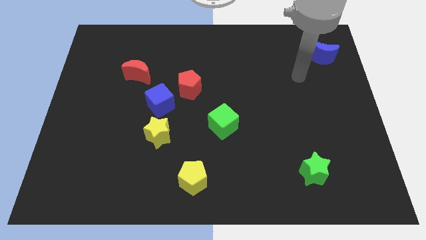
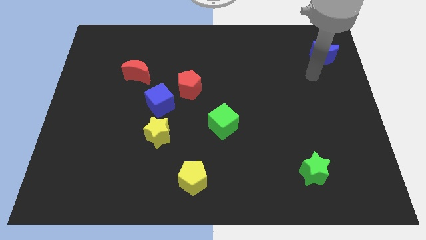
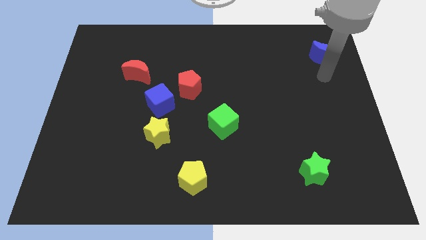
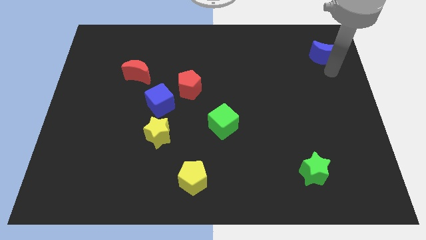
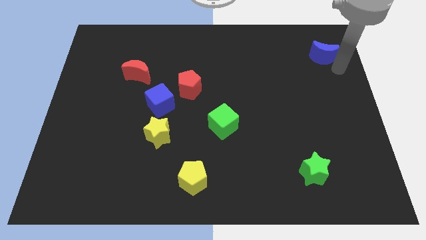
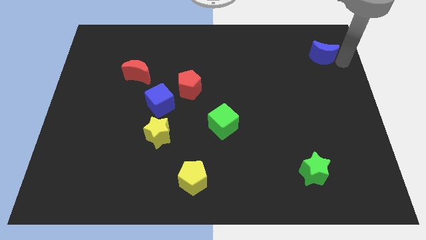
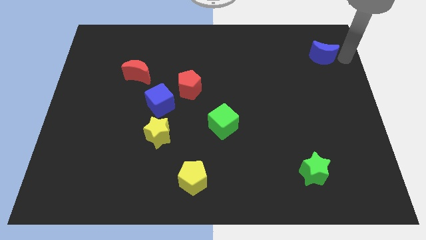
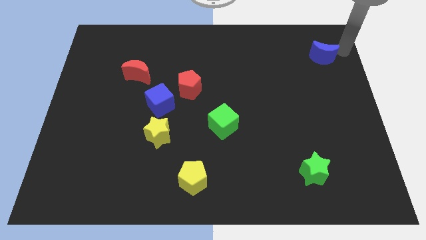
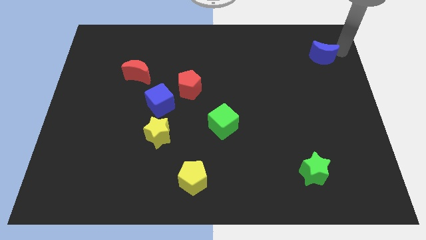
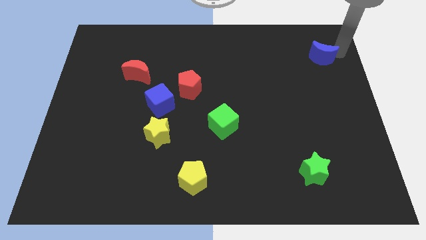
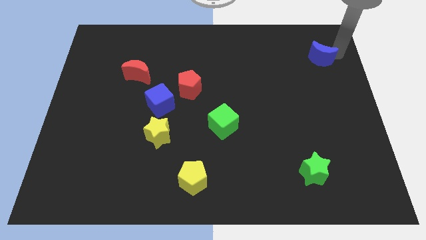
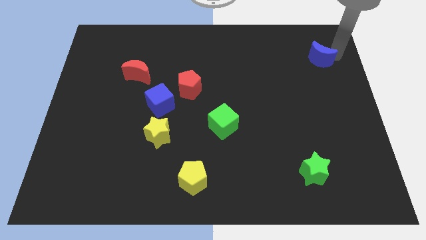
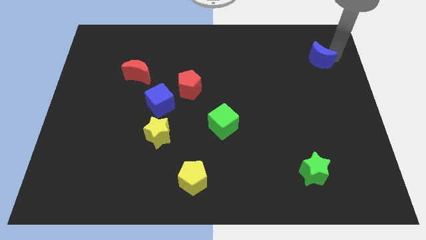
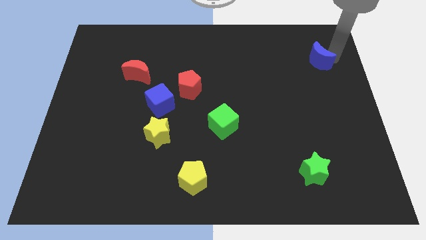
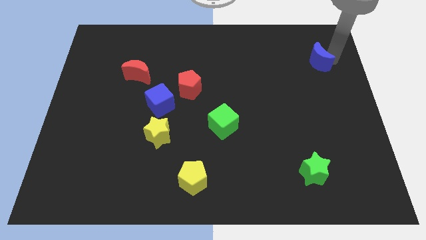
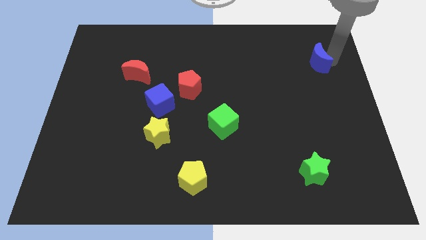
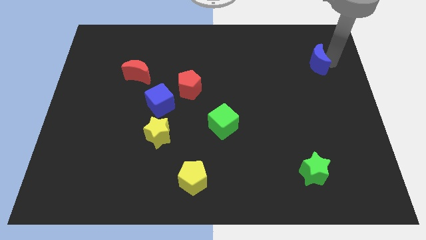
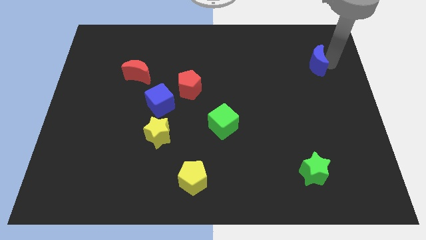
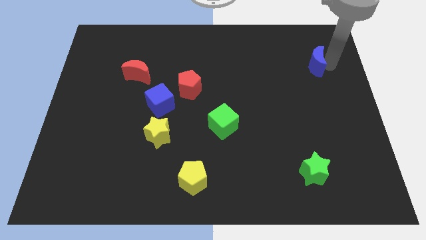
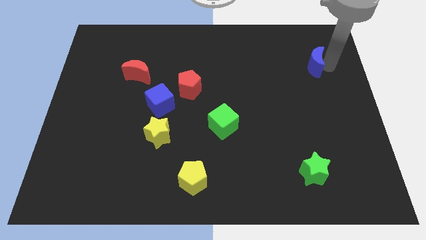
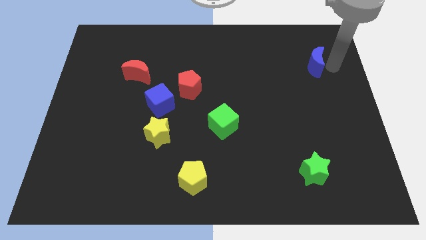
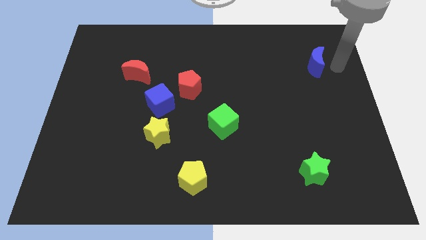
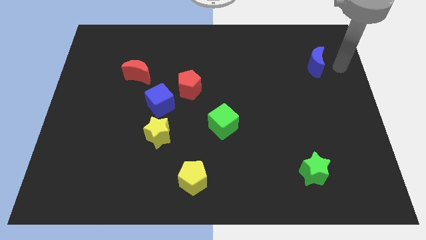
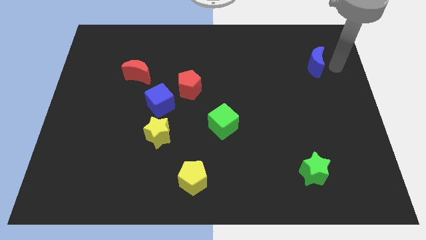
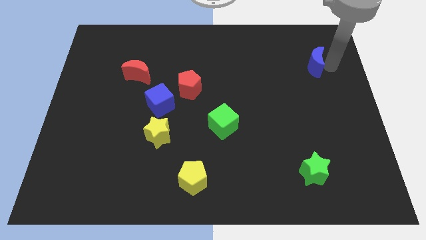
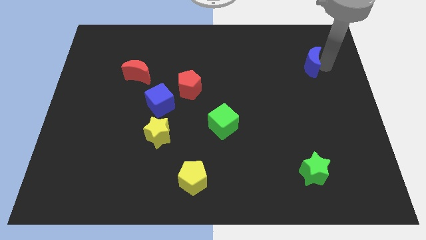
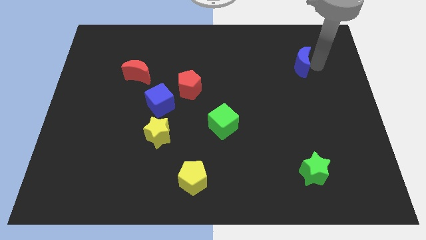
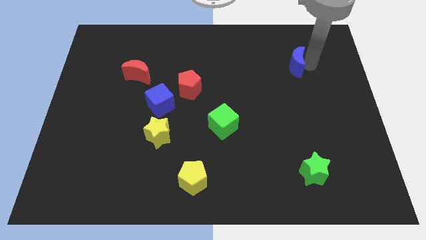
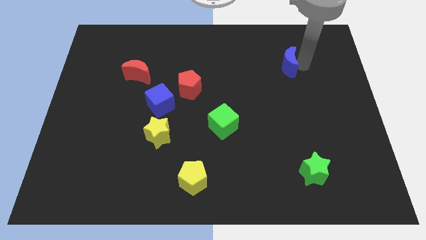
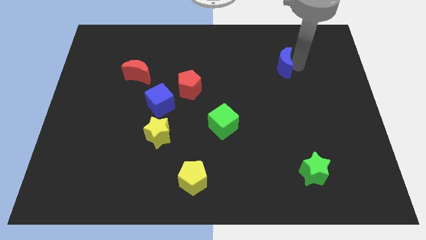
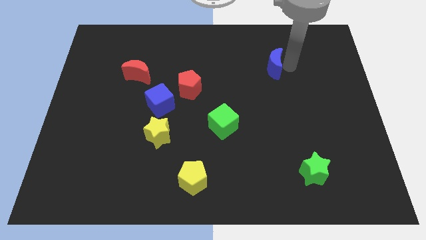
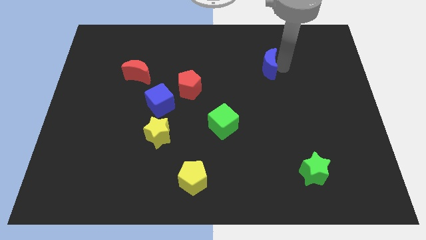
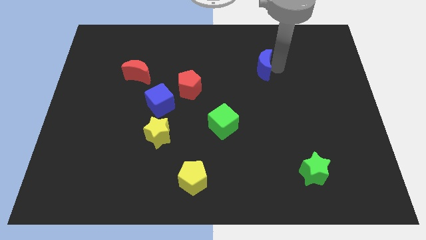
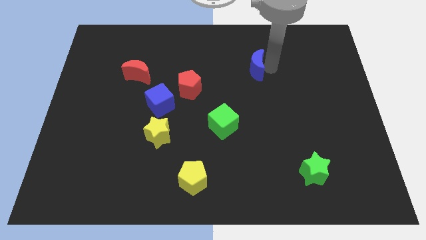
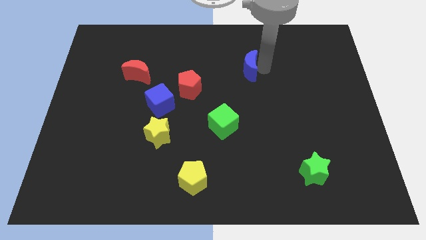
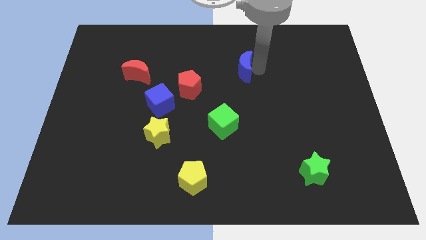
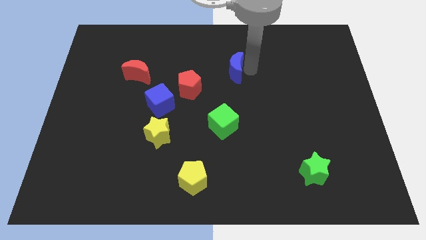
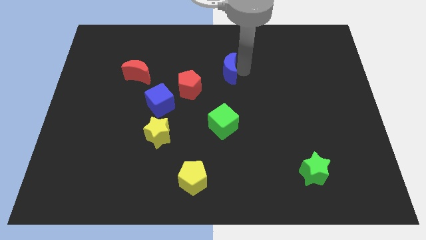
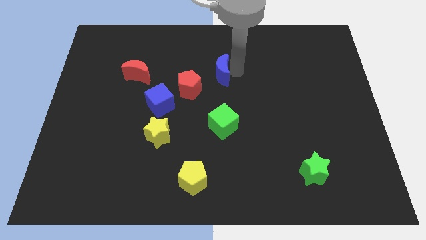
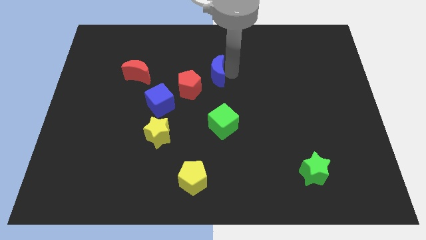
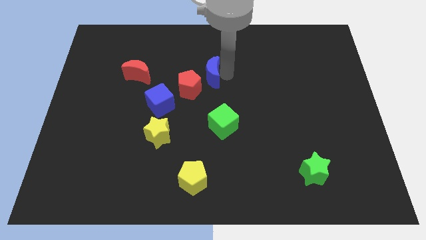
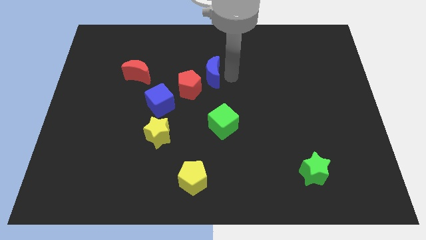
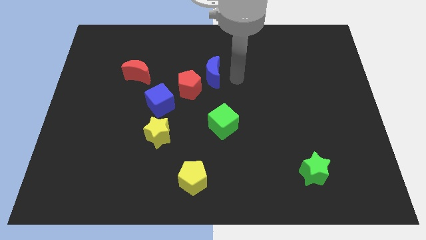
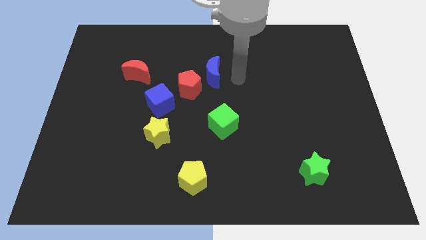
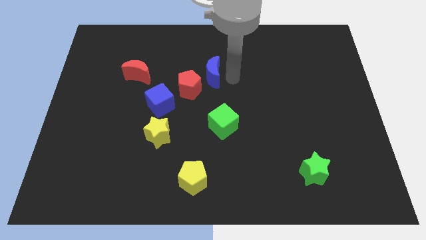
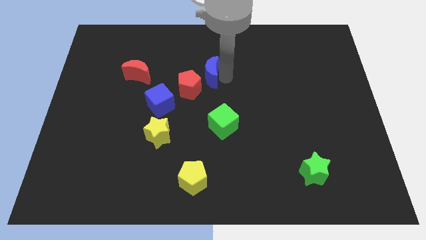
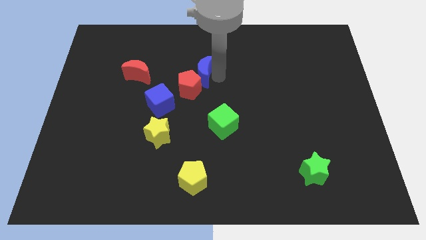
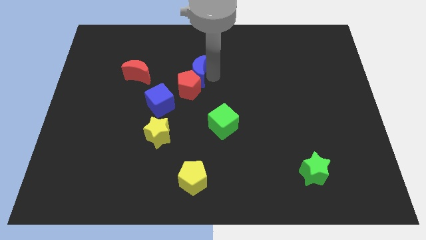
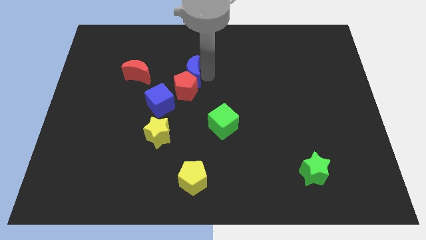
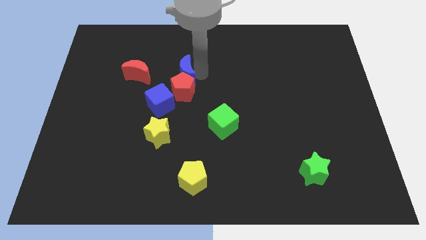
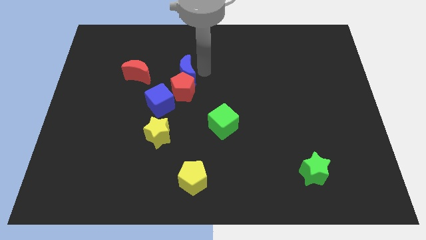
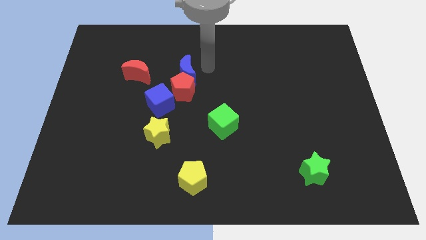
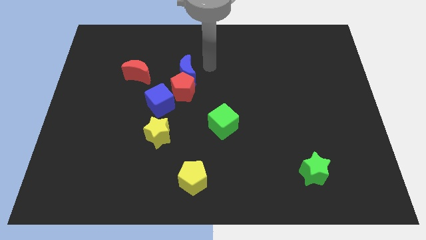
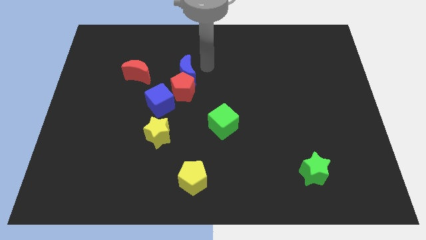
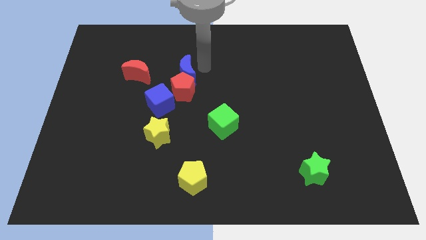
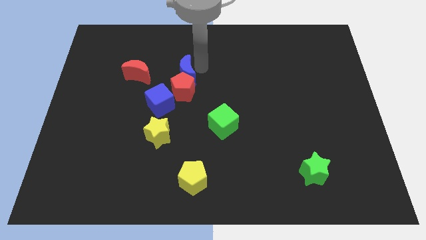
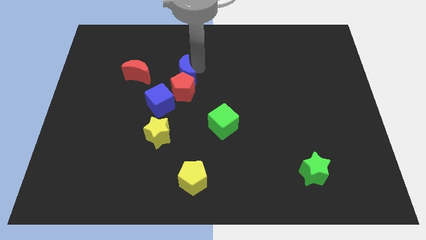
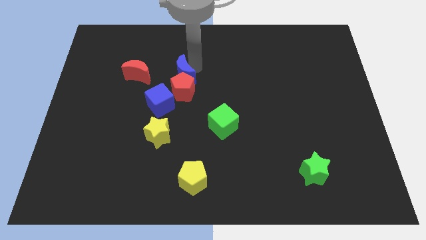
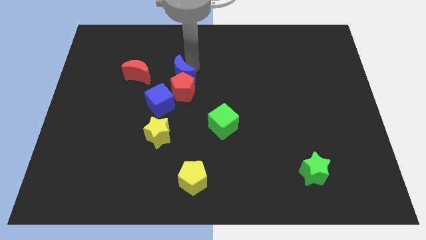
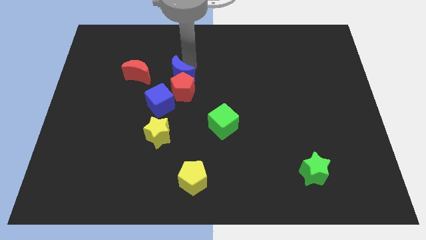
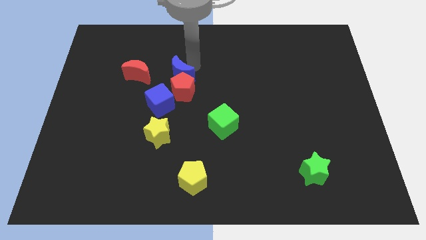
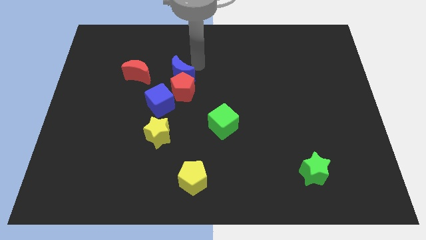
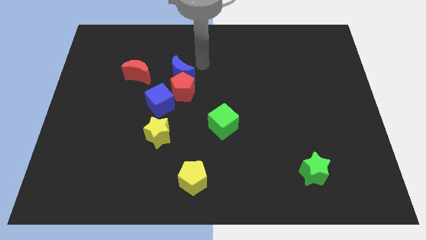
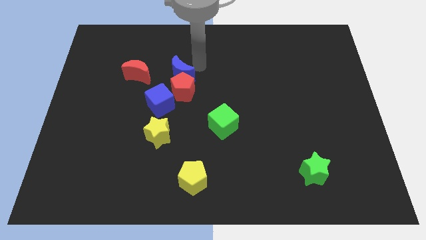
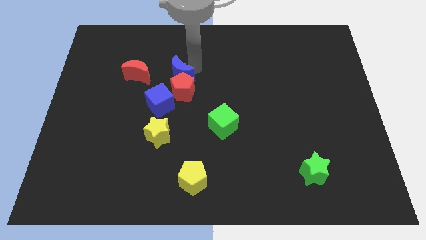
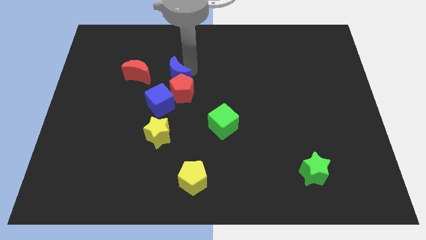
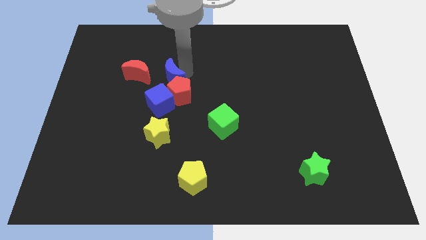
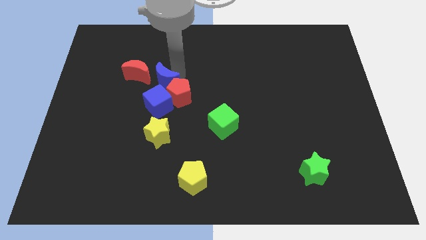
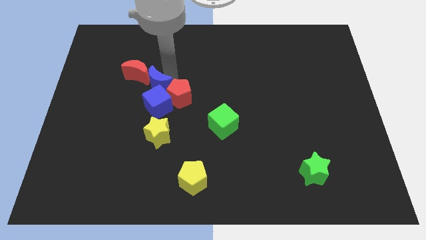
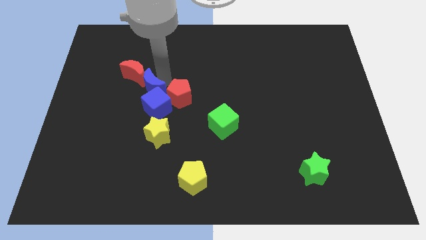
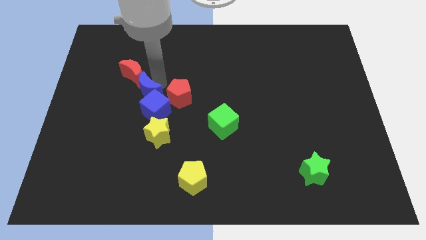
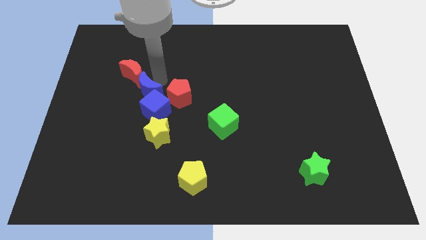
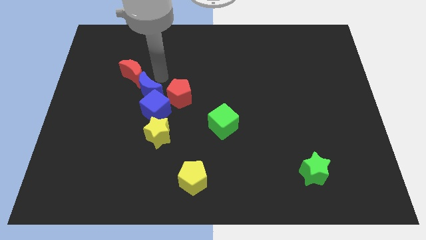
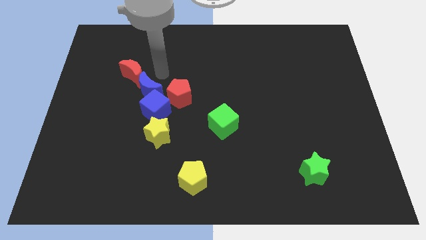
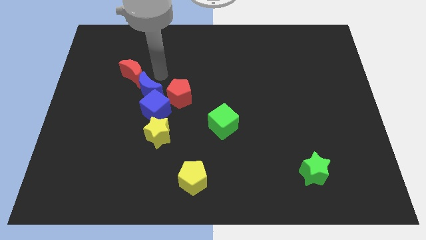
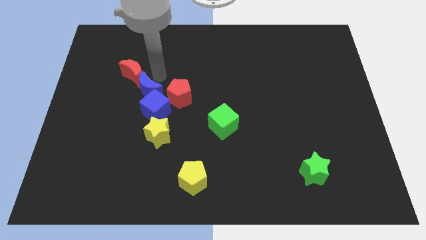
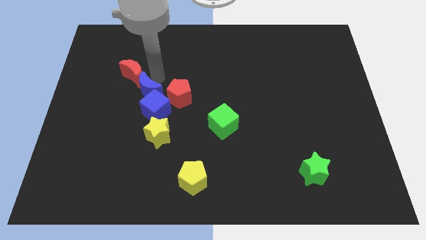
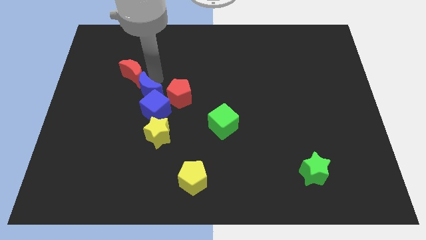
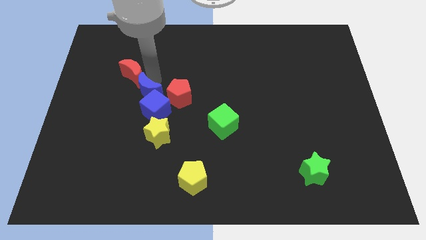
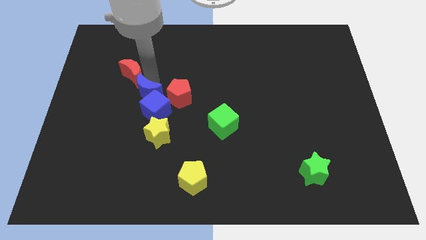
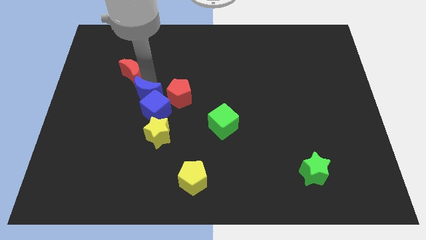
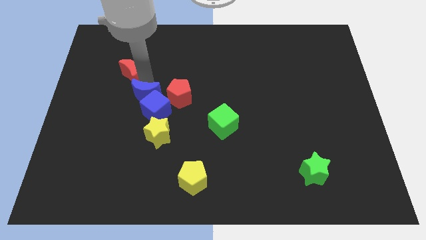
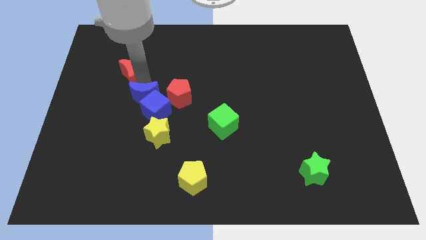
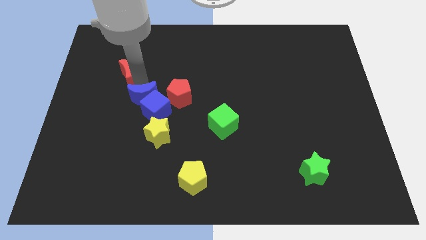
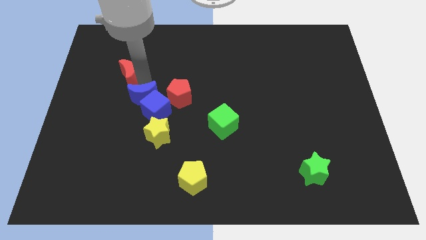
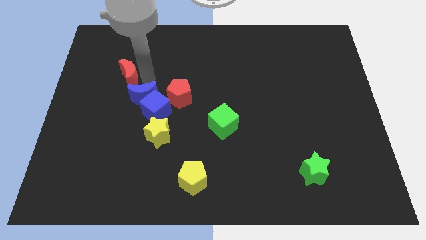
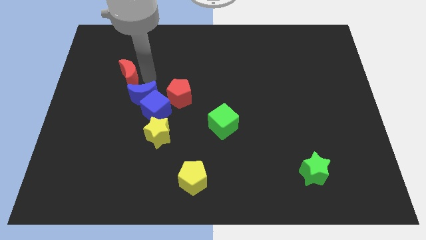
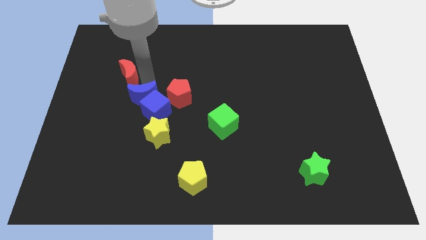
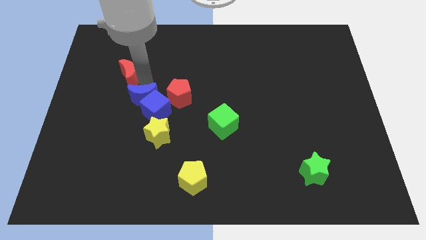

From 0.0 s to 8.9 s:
move the blue moon diagonally up and to the left of the yellow star
